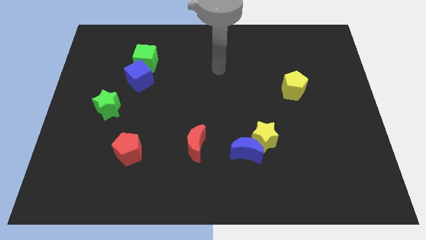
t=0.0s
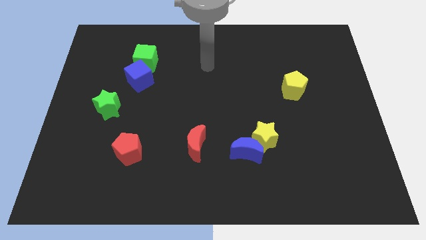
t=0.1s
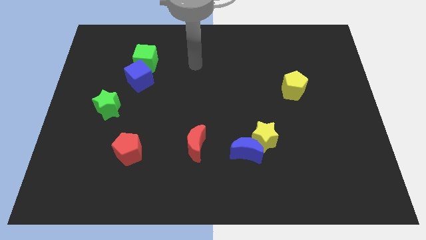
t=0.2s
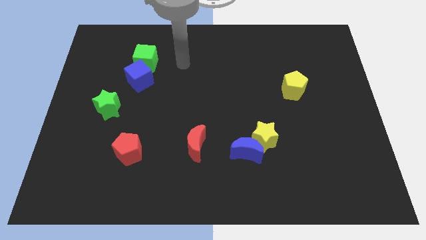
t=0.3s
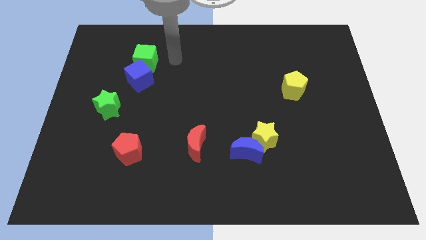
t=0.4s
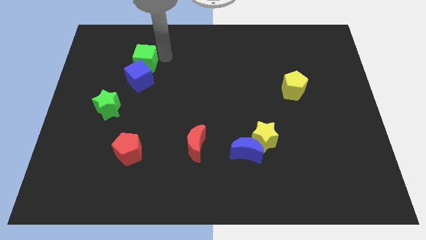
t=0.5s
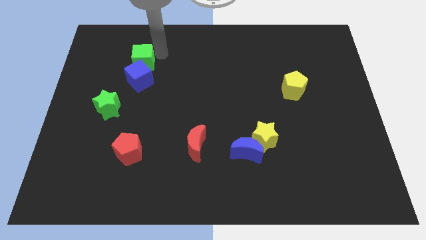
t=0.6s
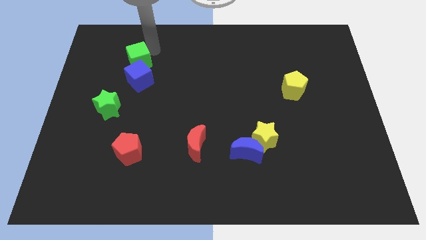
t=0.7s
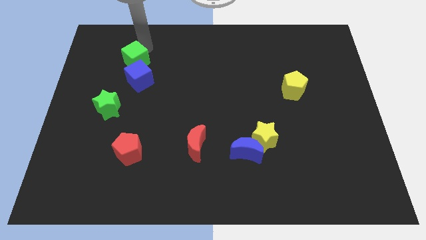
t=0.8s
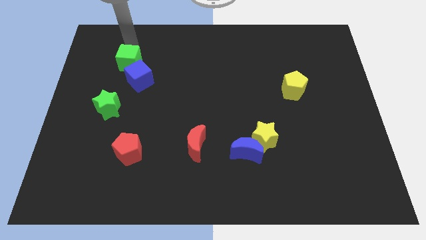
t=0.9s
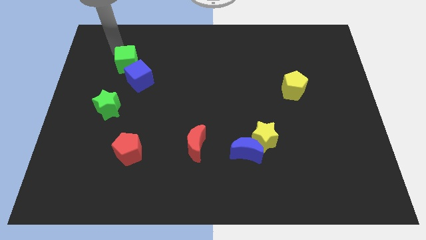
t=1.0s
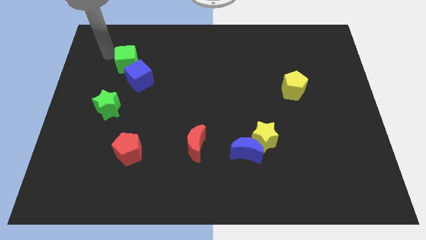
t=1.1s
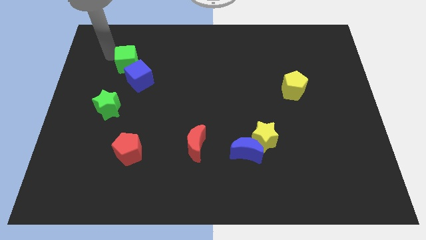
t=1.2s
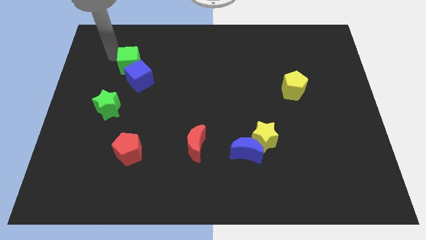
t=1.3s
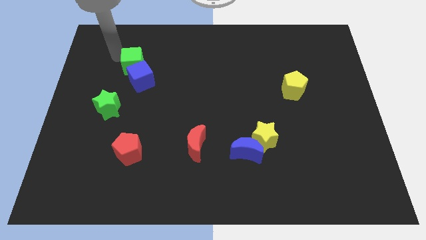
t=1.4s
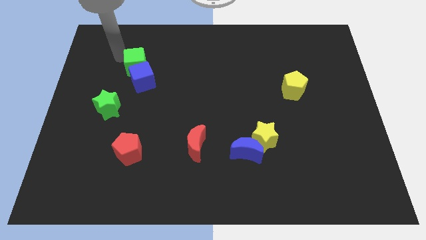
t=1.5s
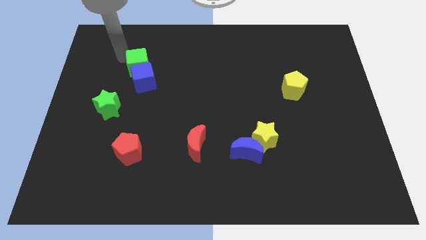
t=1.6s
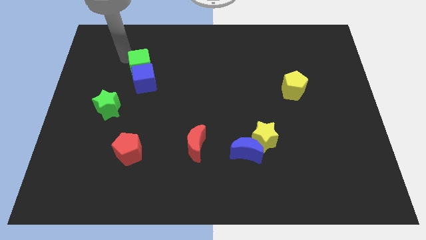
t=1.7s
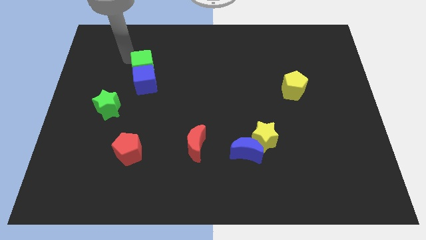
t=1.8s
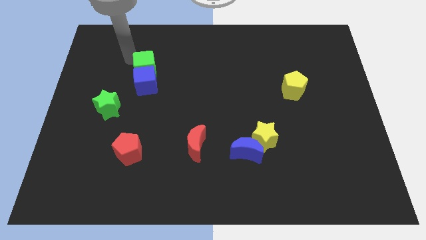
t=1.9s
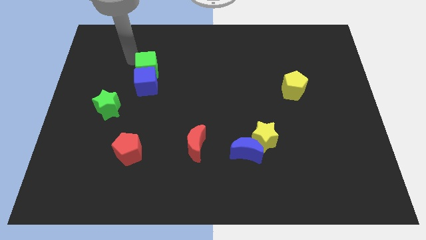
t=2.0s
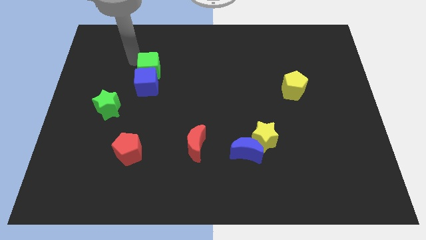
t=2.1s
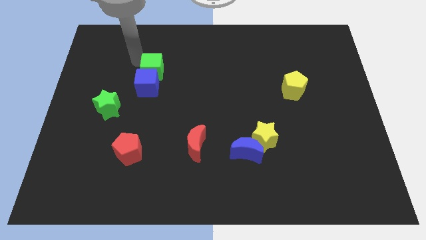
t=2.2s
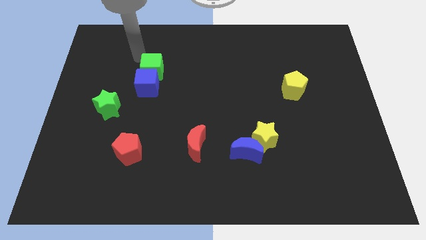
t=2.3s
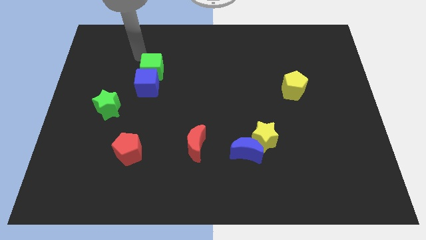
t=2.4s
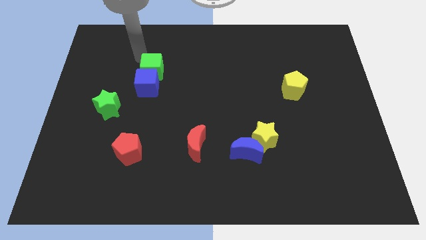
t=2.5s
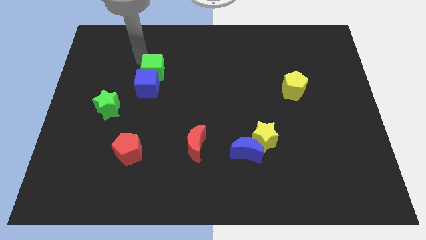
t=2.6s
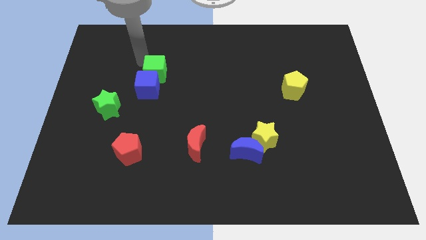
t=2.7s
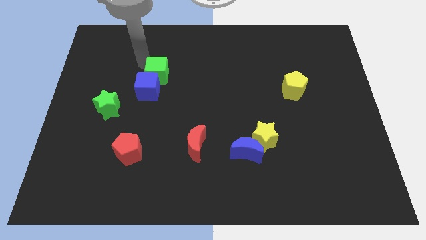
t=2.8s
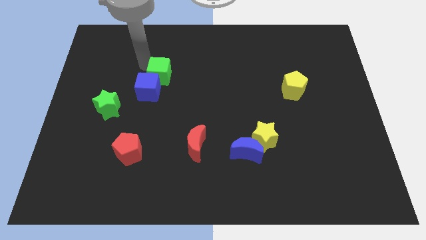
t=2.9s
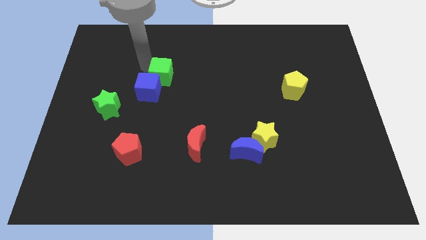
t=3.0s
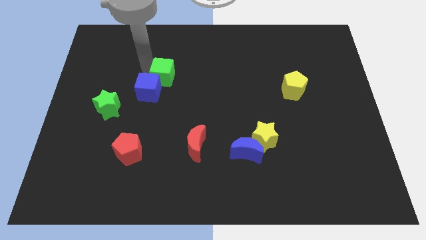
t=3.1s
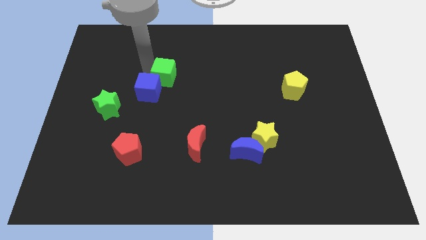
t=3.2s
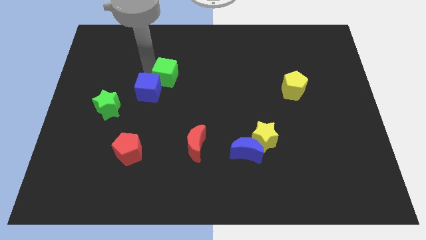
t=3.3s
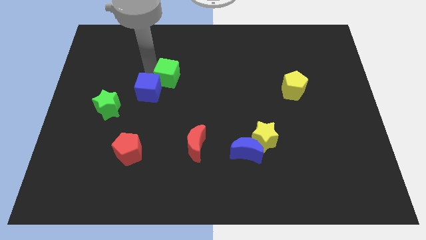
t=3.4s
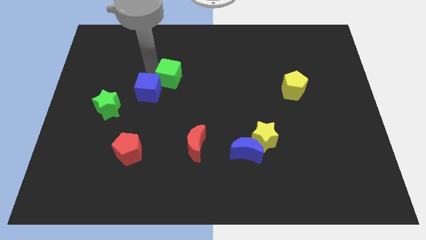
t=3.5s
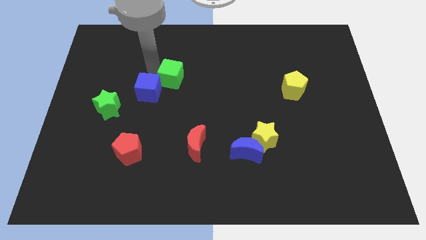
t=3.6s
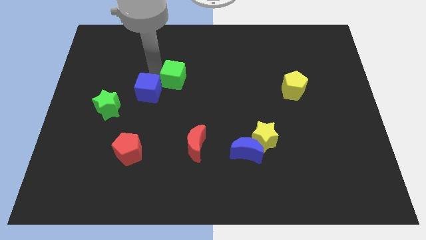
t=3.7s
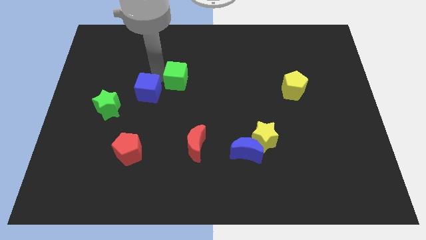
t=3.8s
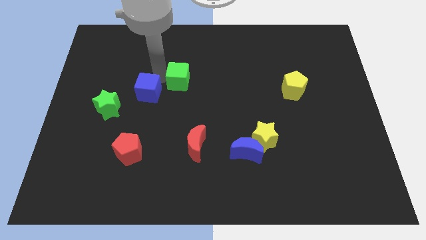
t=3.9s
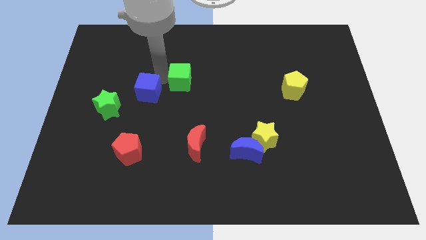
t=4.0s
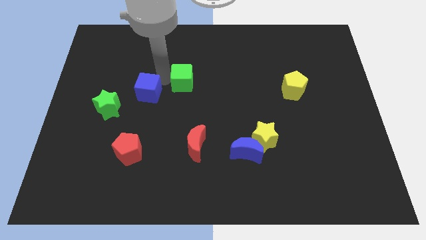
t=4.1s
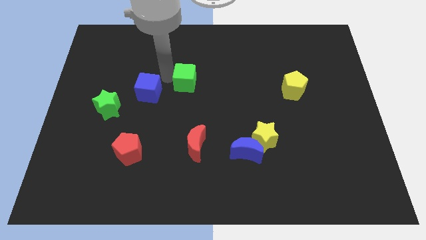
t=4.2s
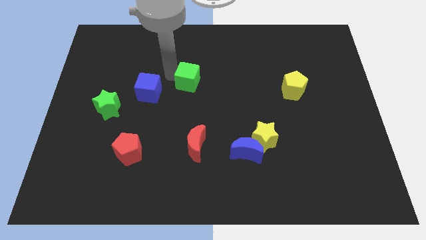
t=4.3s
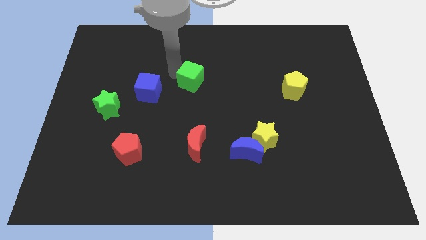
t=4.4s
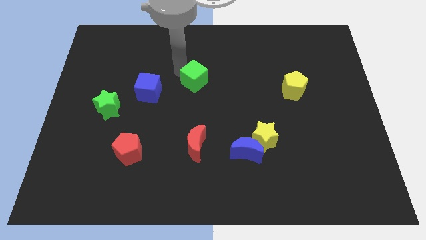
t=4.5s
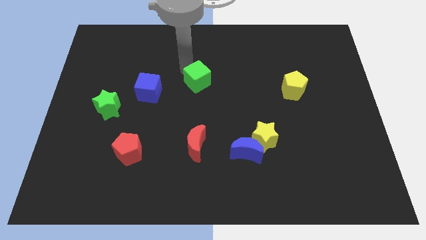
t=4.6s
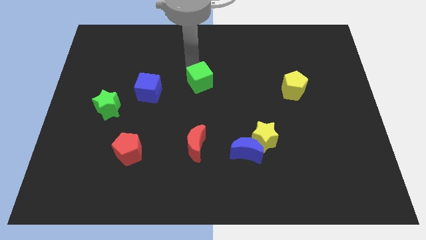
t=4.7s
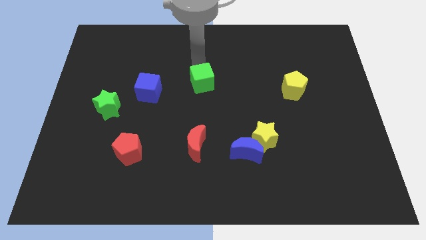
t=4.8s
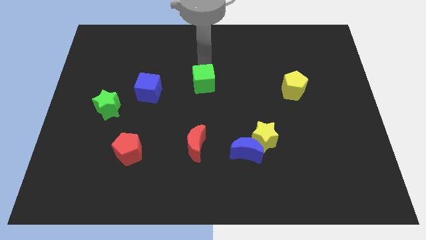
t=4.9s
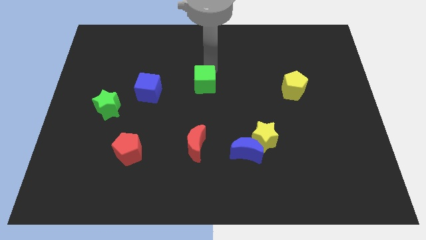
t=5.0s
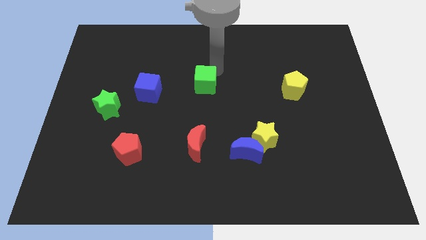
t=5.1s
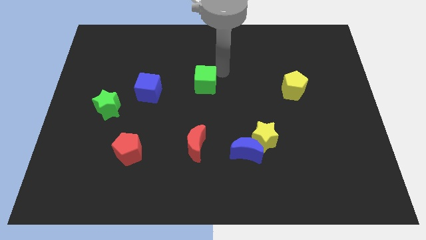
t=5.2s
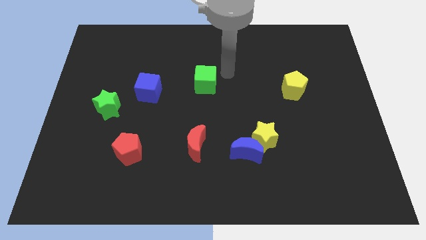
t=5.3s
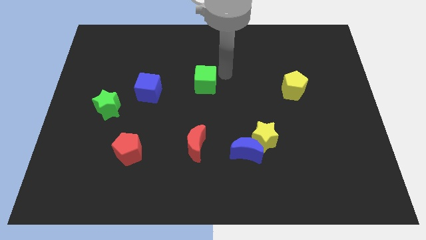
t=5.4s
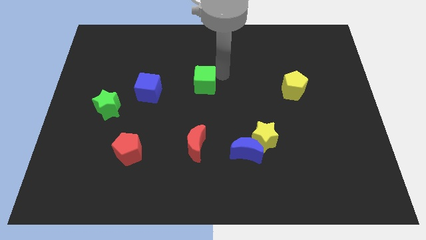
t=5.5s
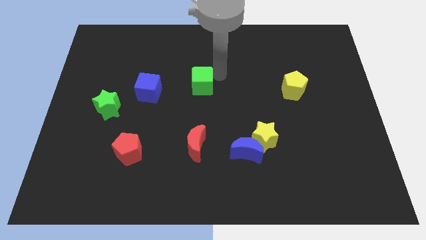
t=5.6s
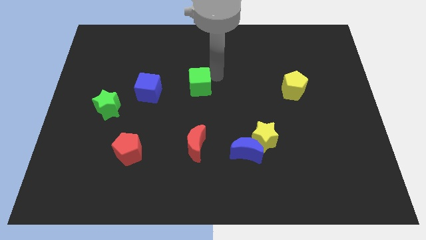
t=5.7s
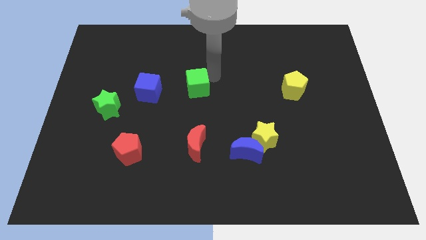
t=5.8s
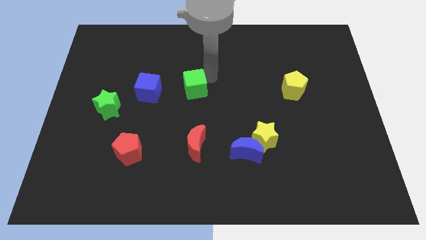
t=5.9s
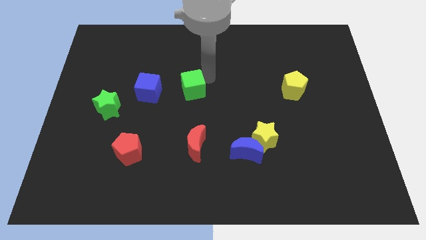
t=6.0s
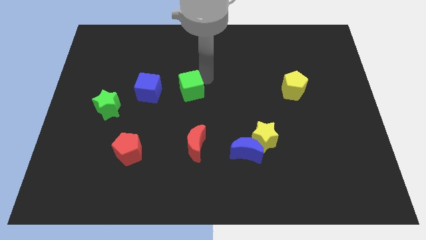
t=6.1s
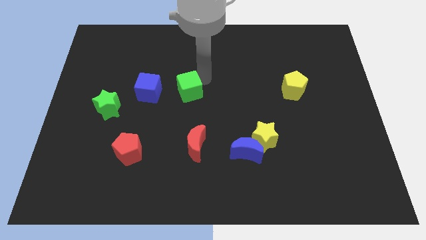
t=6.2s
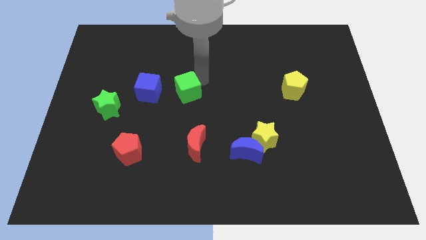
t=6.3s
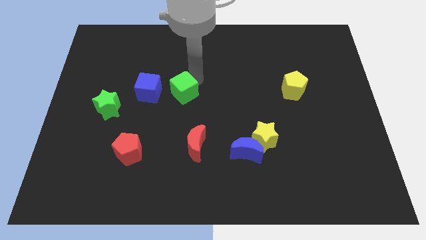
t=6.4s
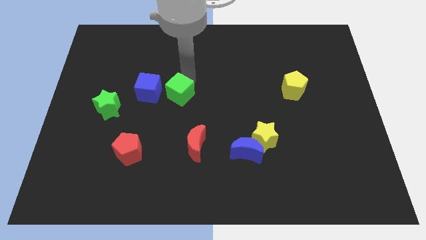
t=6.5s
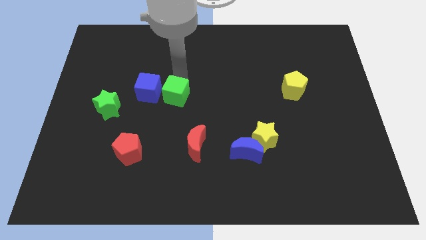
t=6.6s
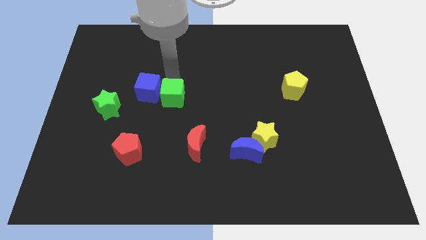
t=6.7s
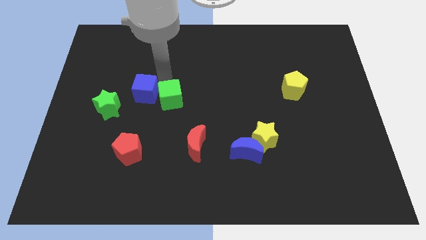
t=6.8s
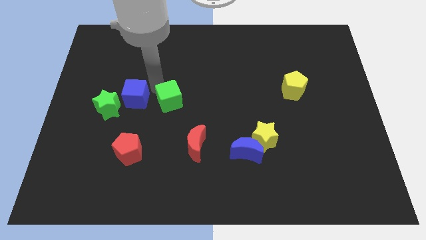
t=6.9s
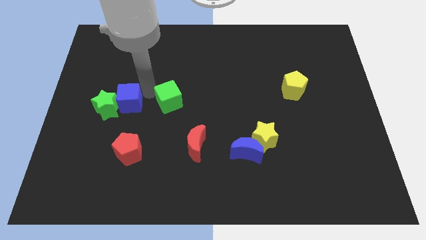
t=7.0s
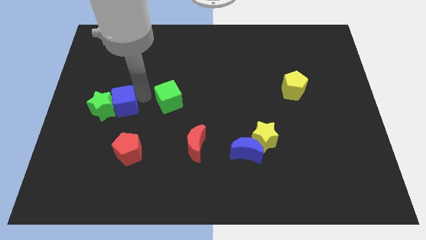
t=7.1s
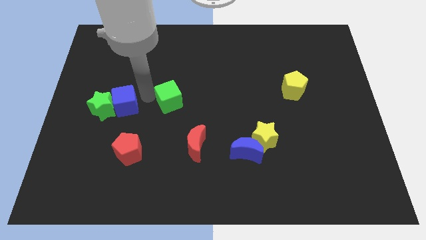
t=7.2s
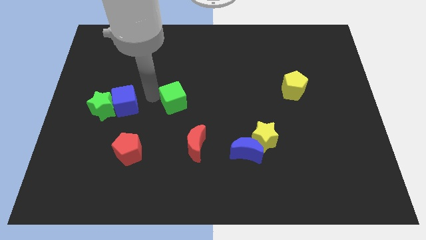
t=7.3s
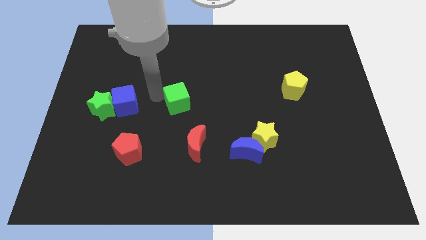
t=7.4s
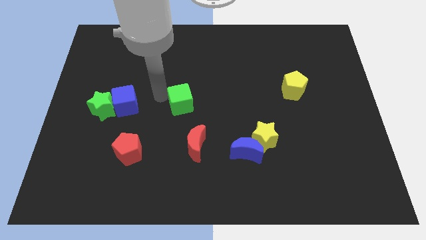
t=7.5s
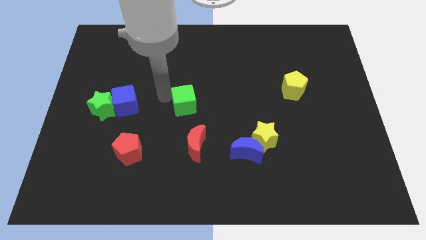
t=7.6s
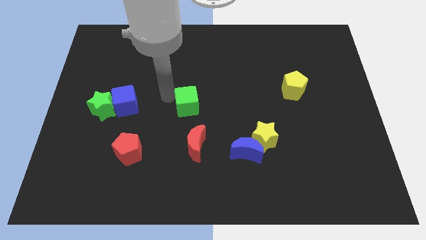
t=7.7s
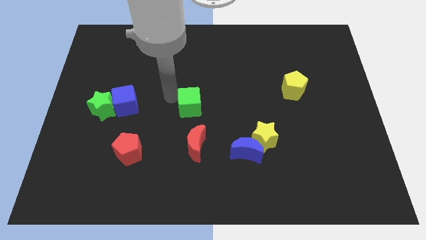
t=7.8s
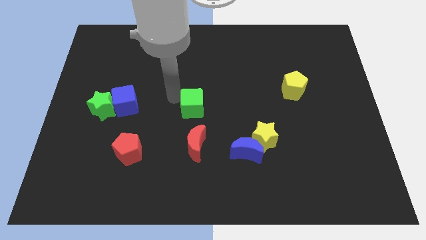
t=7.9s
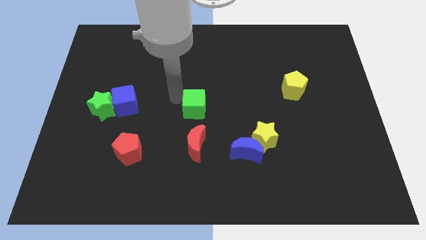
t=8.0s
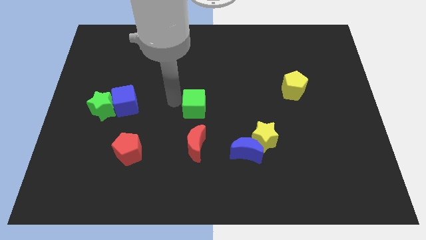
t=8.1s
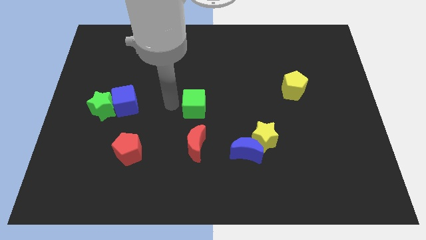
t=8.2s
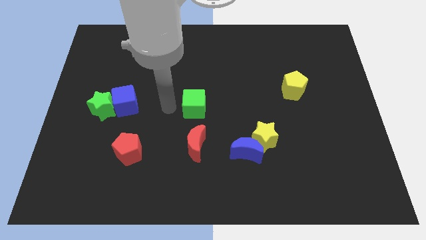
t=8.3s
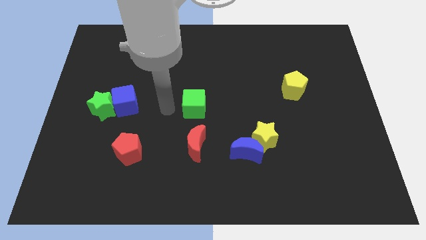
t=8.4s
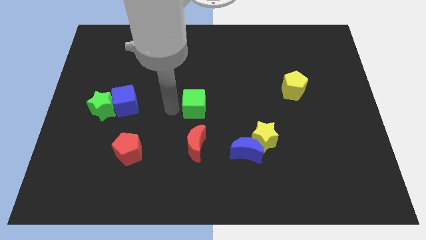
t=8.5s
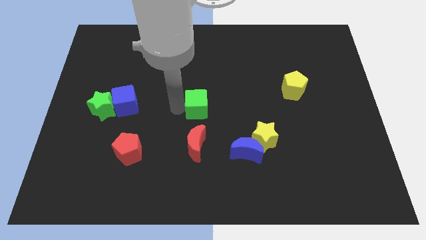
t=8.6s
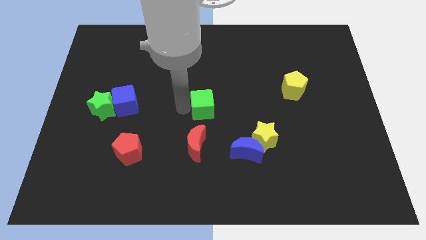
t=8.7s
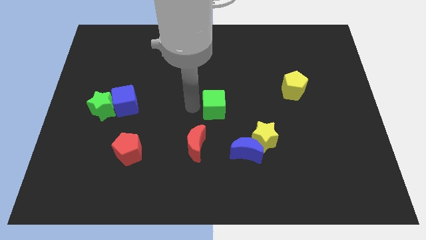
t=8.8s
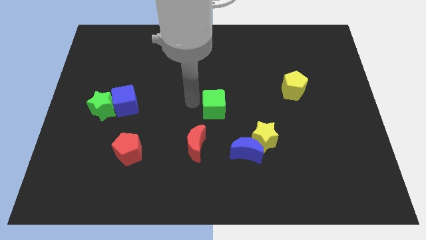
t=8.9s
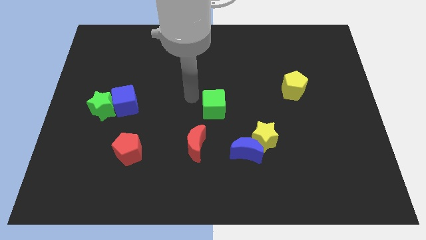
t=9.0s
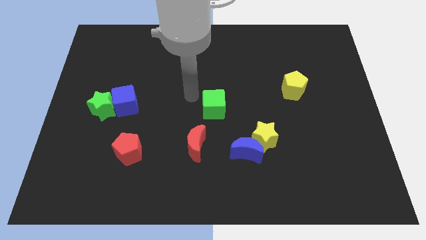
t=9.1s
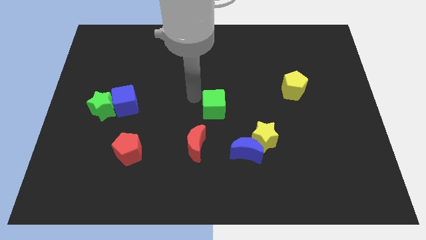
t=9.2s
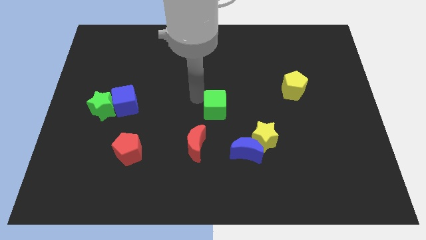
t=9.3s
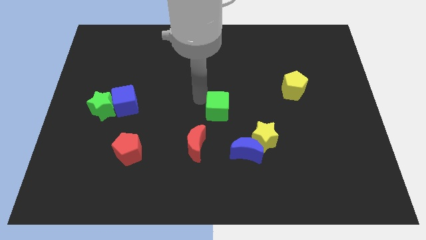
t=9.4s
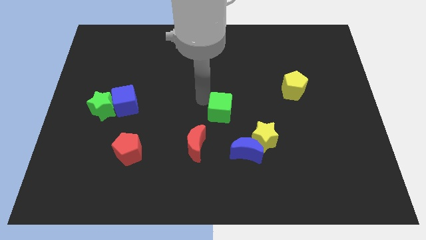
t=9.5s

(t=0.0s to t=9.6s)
move the green cube to the top left of the yellow star
